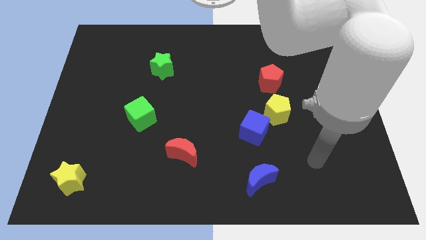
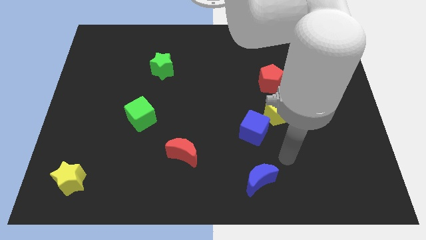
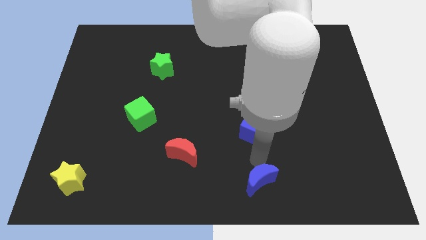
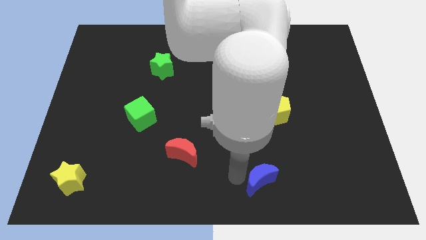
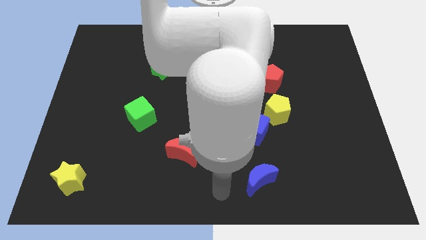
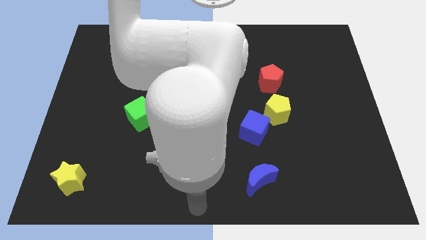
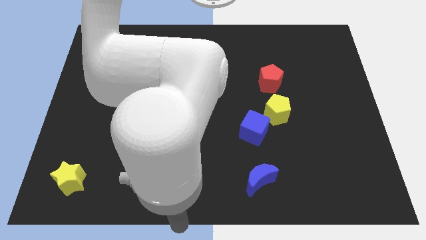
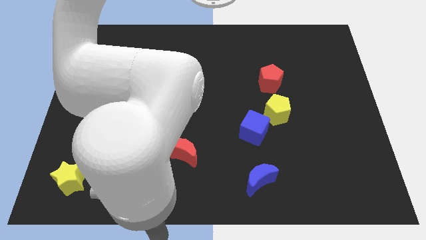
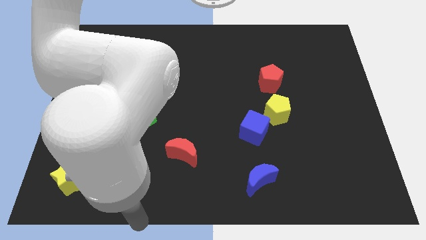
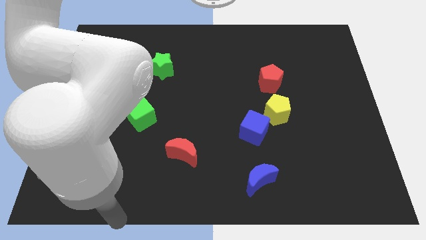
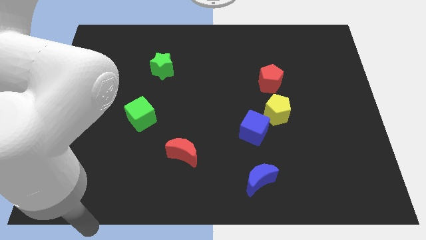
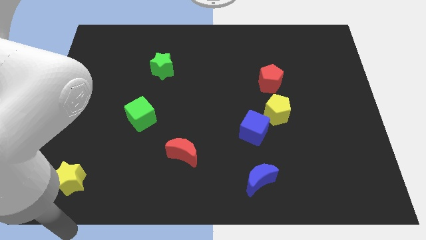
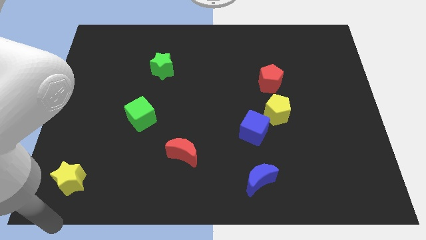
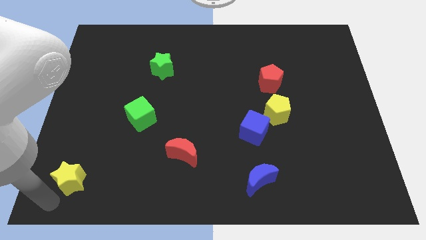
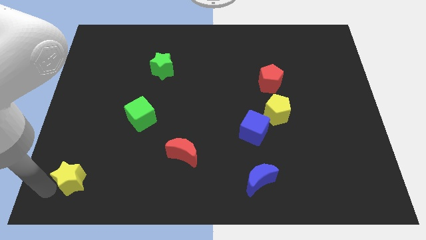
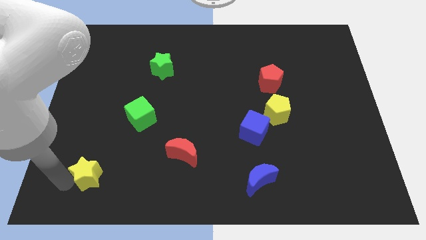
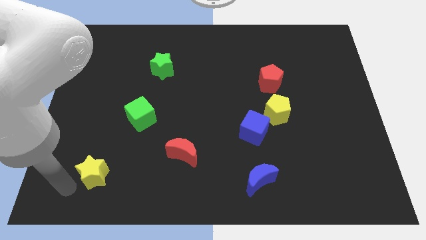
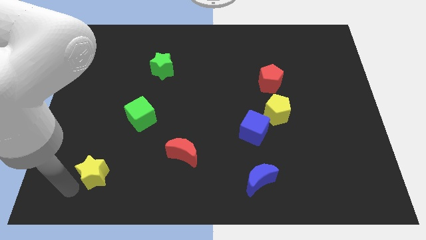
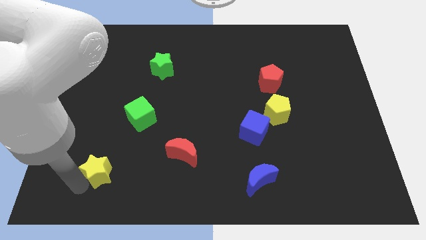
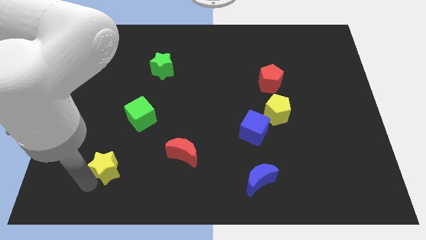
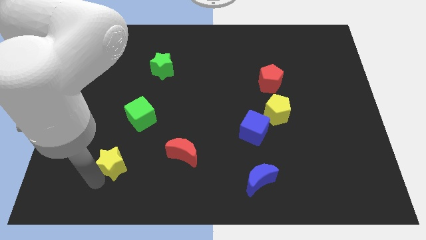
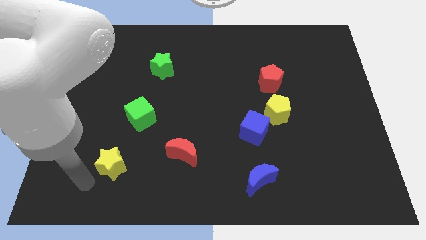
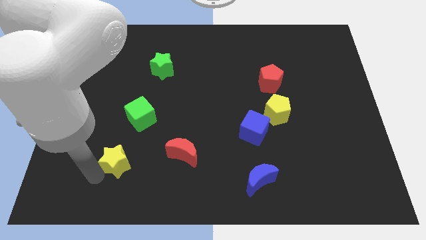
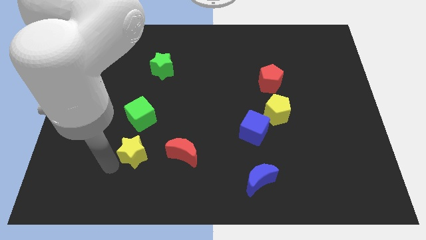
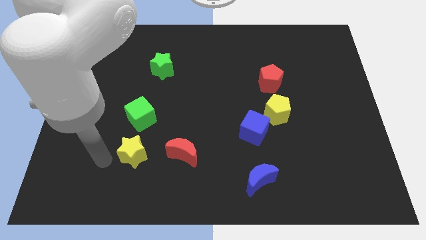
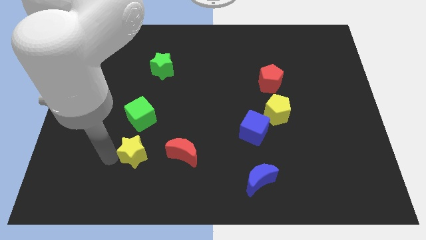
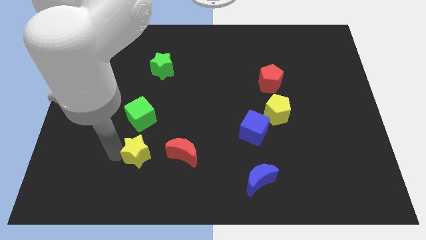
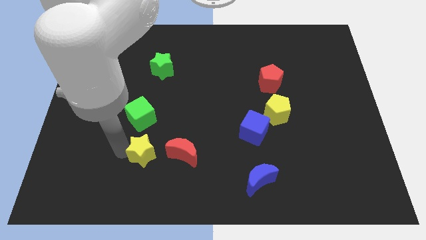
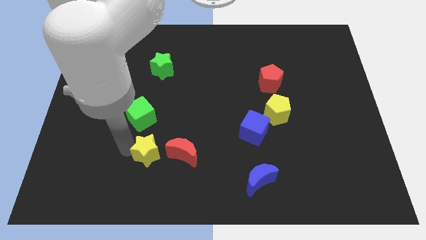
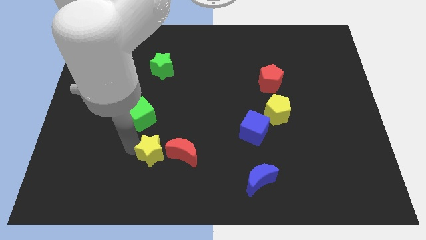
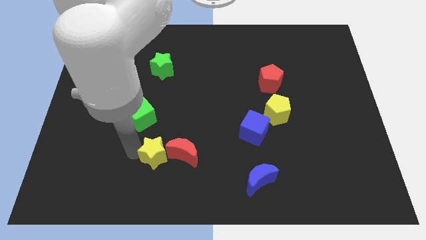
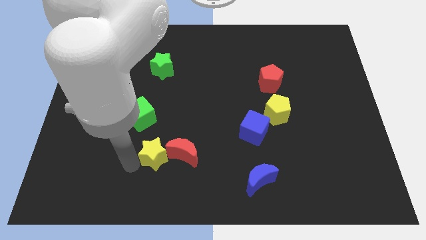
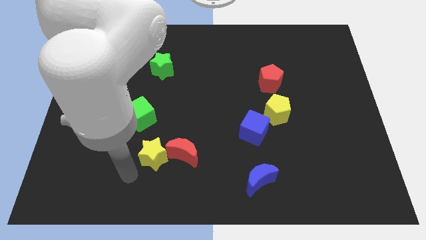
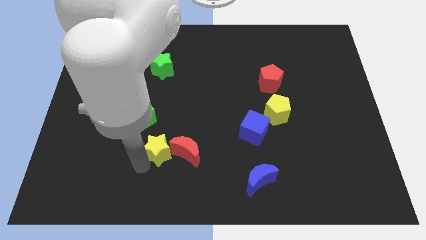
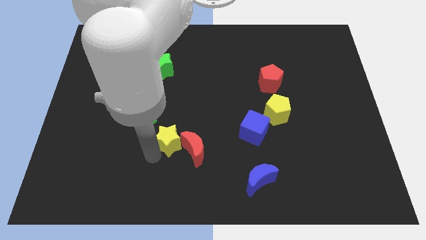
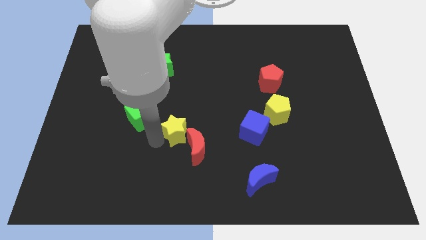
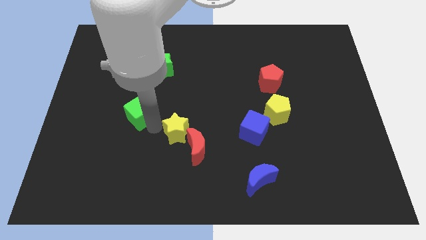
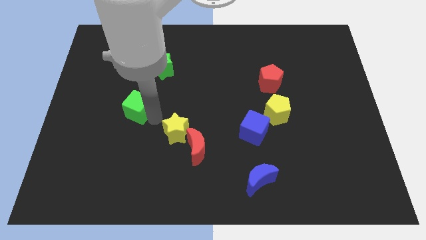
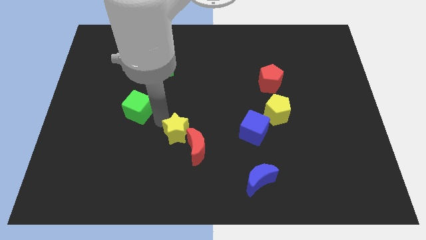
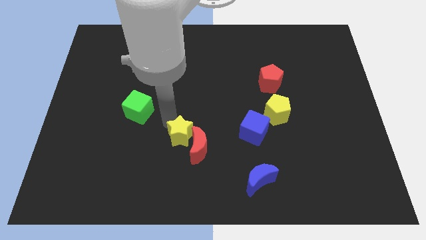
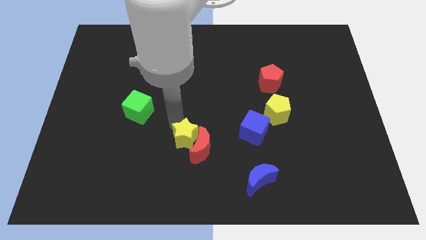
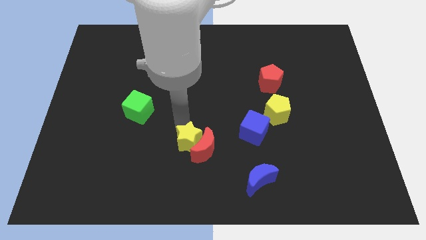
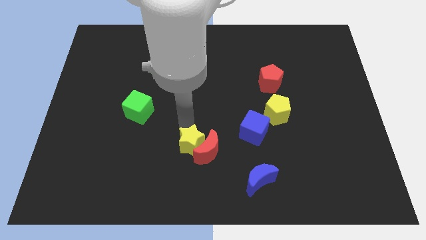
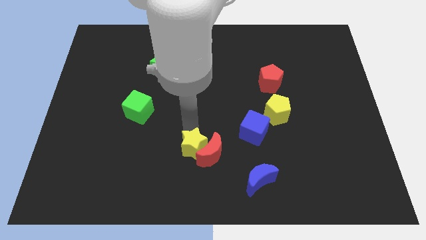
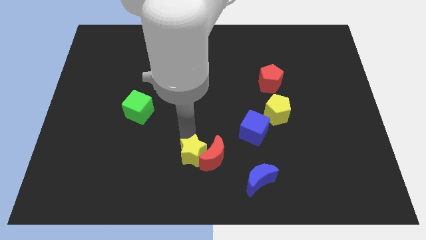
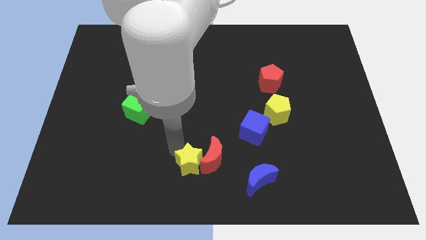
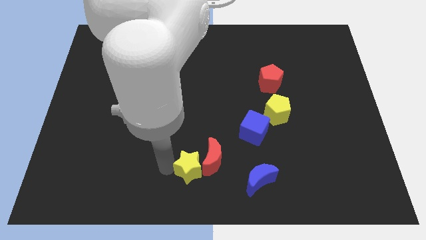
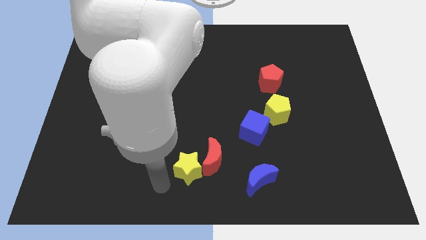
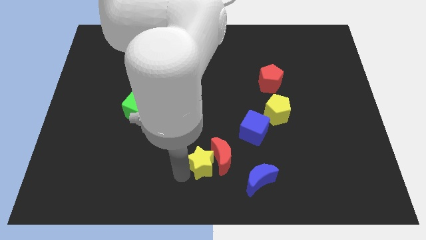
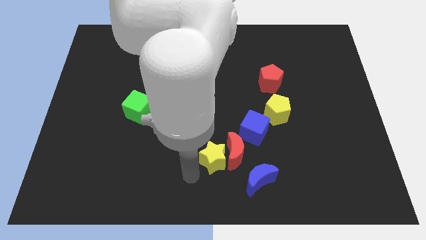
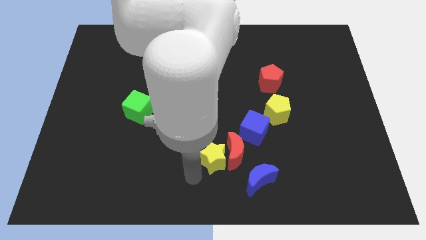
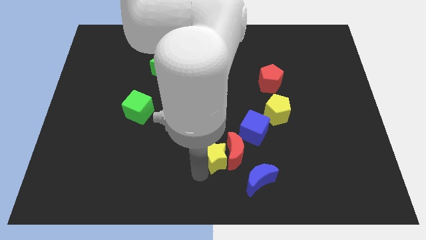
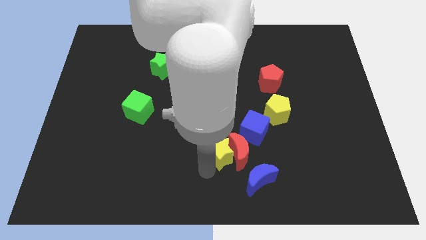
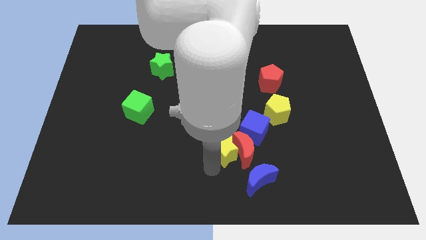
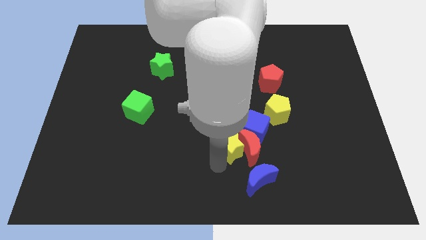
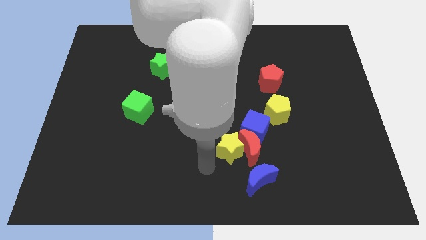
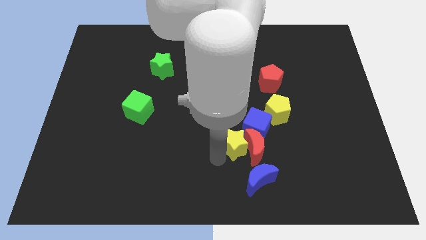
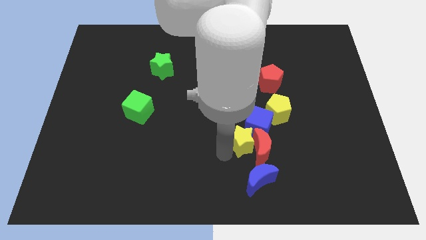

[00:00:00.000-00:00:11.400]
move the yellow star next to the blue cube

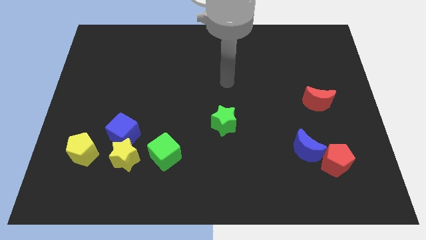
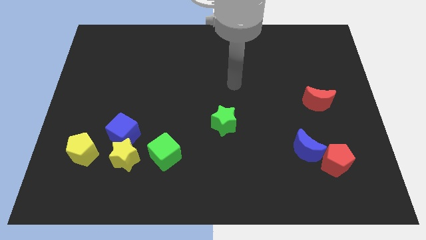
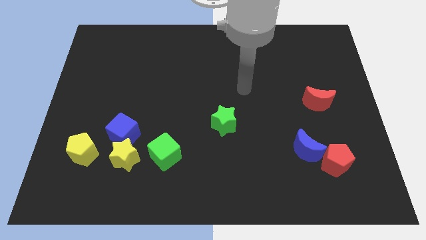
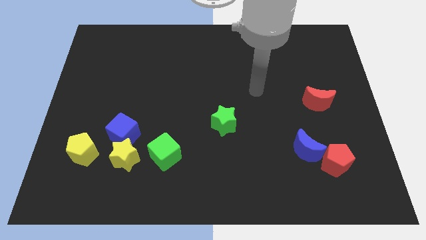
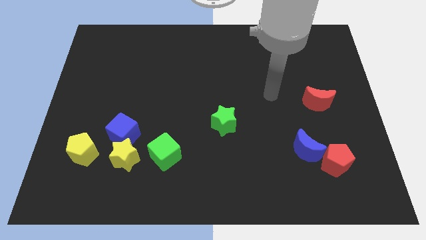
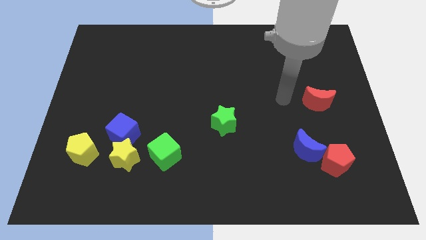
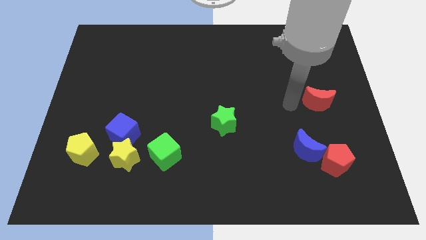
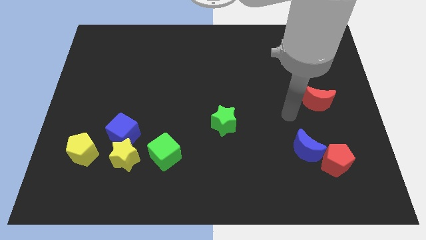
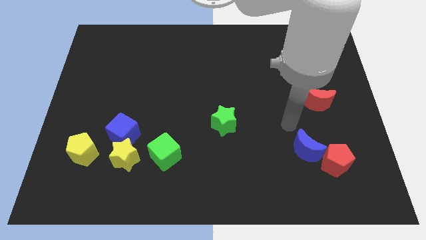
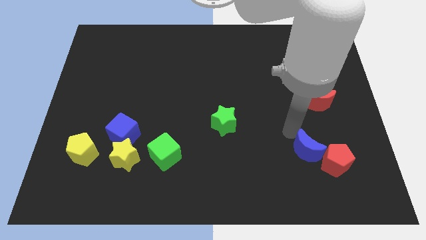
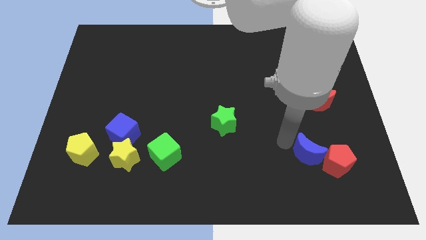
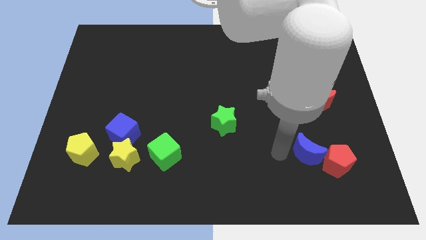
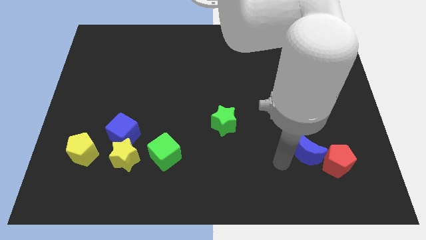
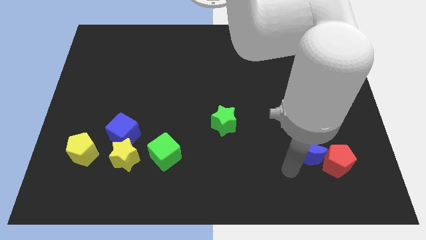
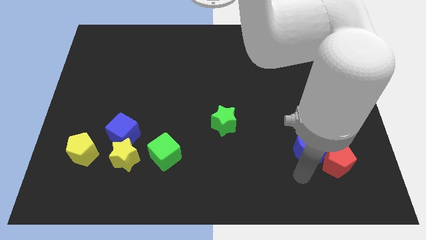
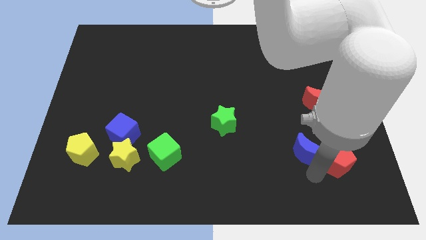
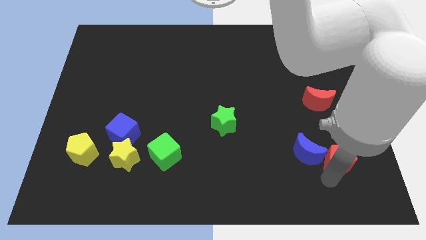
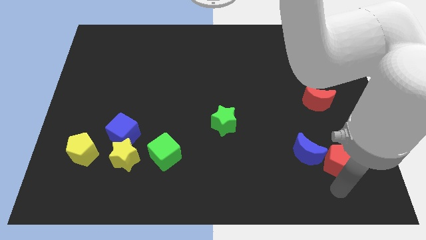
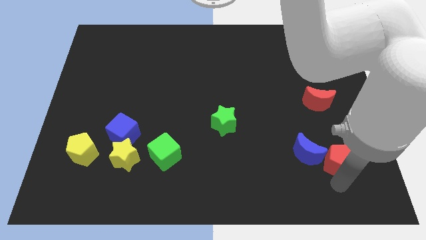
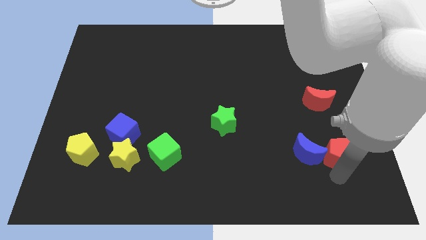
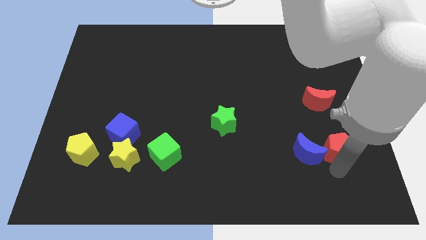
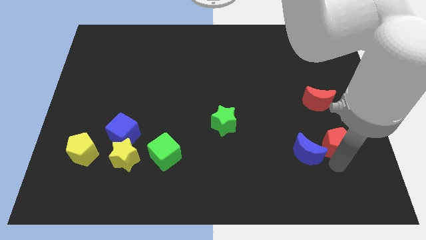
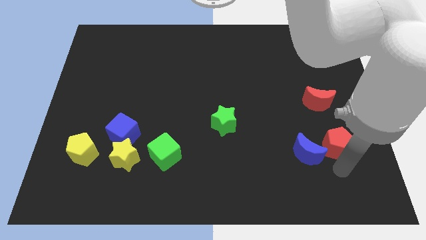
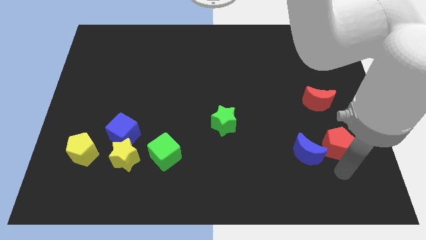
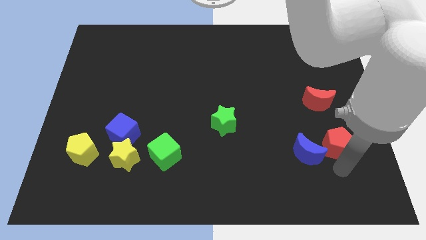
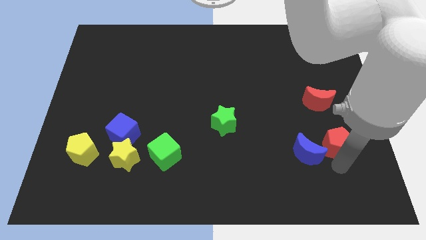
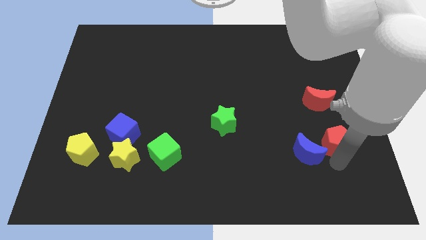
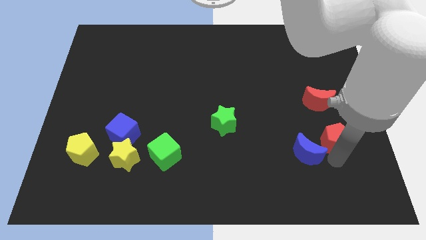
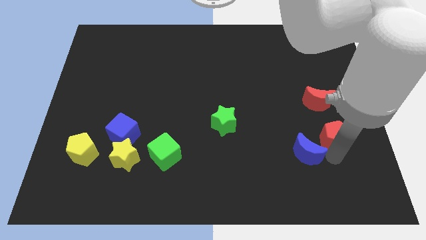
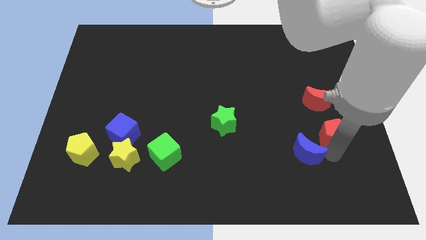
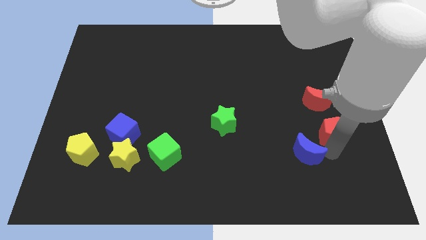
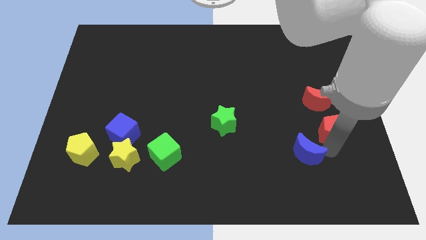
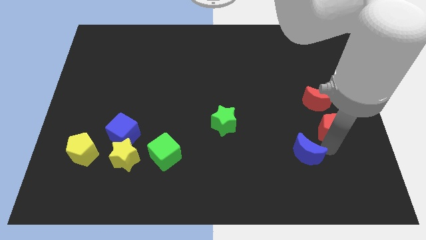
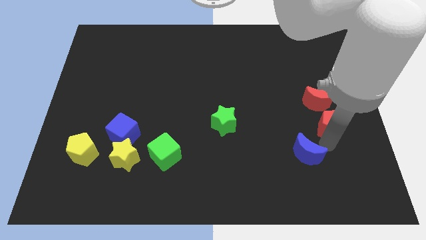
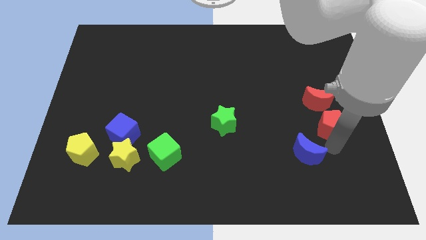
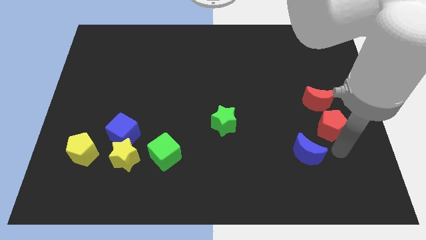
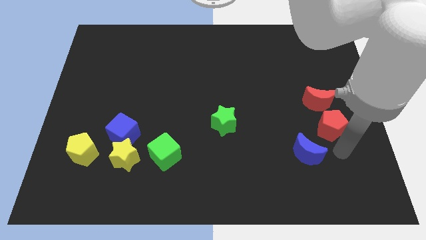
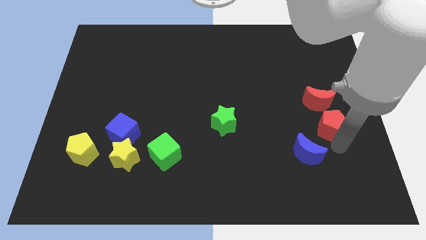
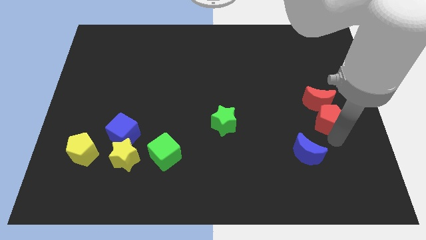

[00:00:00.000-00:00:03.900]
move the red pentagon to the red moon
